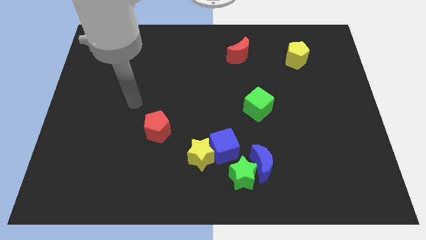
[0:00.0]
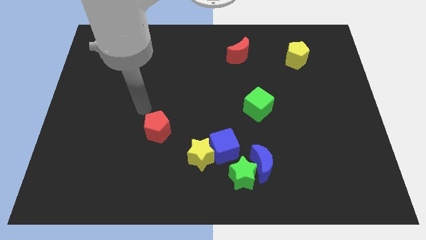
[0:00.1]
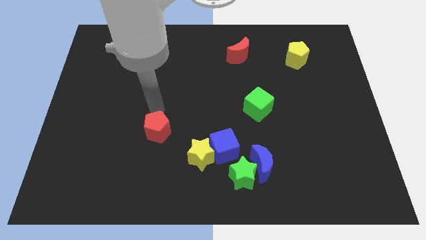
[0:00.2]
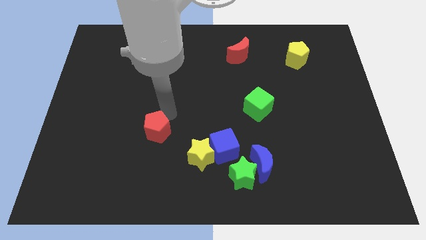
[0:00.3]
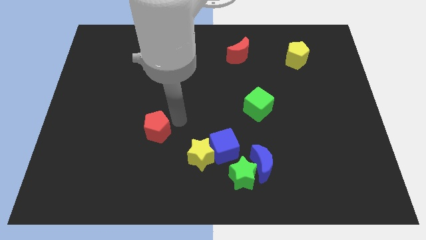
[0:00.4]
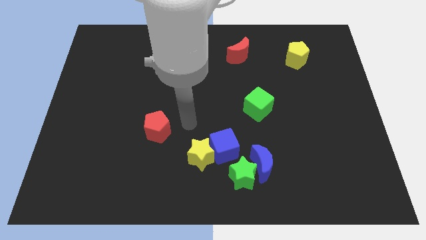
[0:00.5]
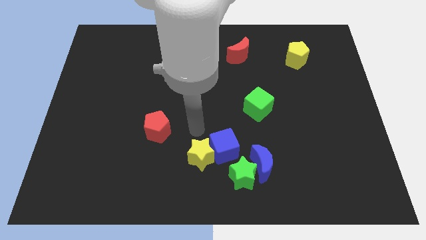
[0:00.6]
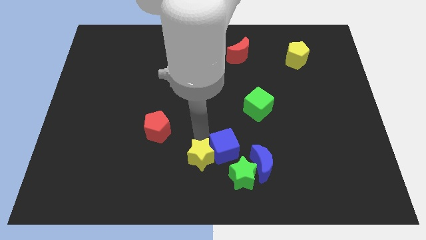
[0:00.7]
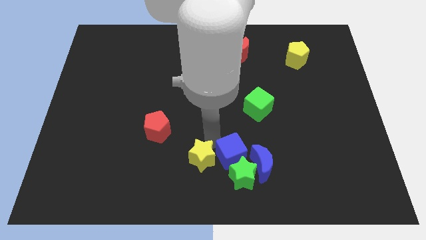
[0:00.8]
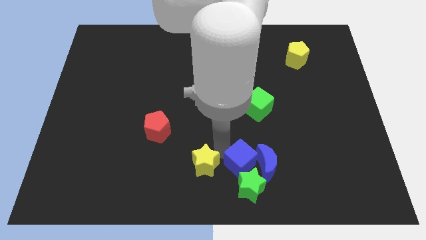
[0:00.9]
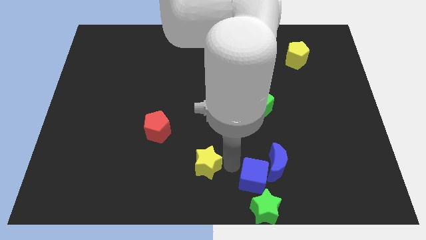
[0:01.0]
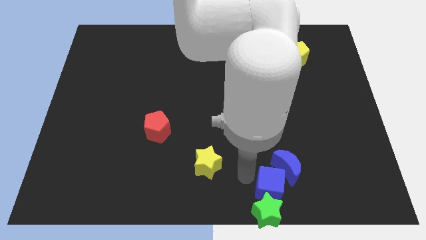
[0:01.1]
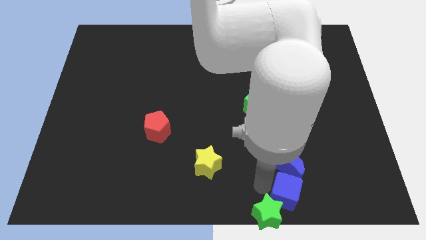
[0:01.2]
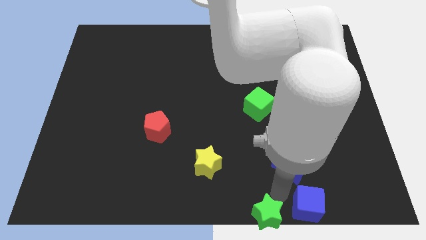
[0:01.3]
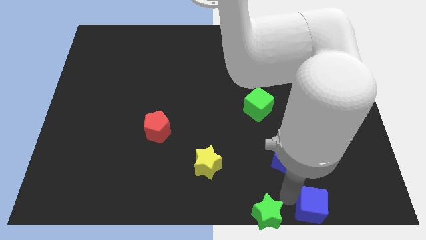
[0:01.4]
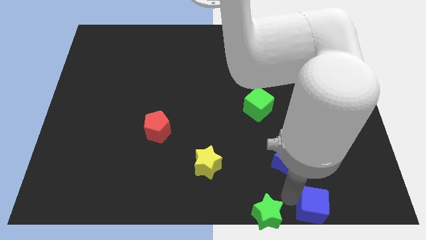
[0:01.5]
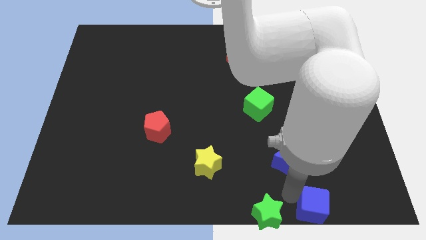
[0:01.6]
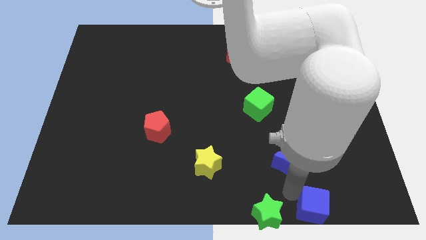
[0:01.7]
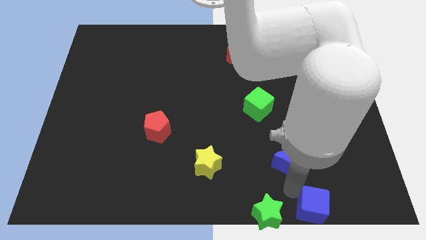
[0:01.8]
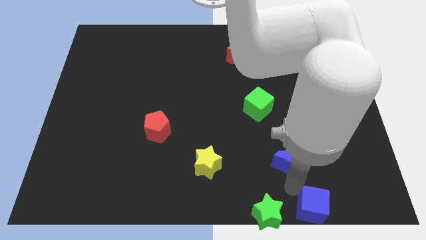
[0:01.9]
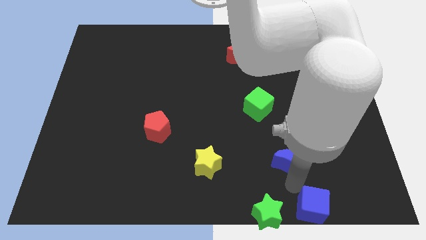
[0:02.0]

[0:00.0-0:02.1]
separate the blue moon from the green star and blue cube

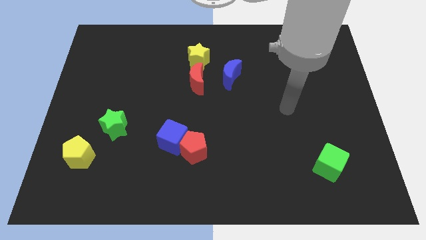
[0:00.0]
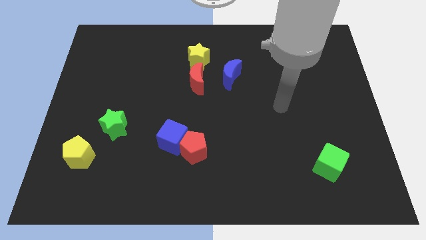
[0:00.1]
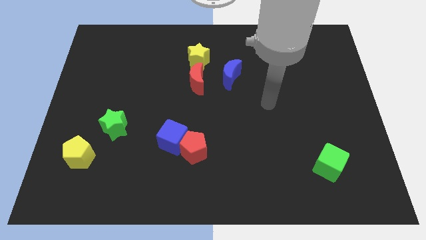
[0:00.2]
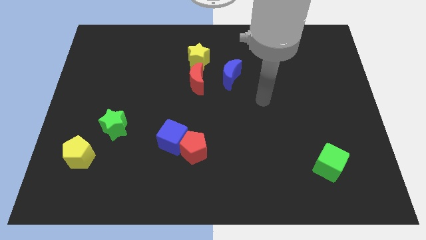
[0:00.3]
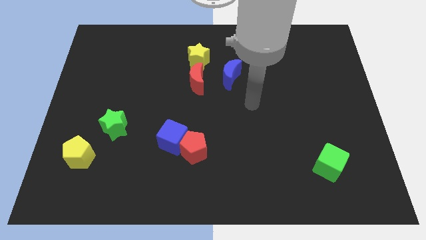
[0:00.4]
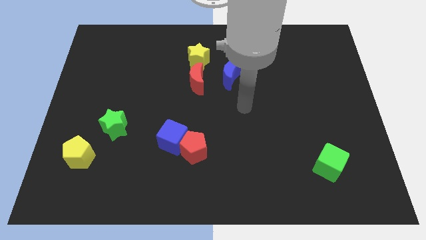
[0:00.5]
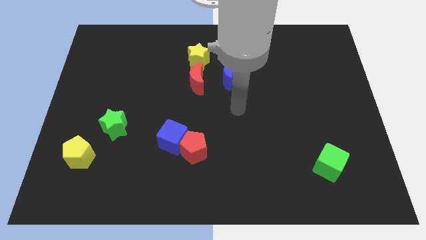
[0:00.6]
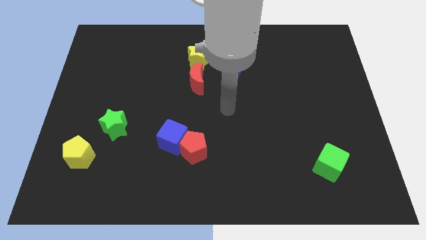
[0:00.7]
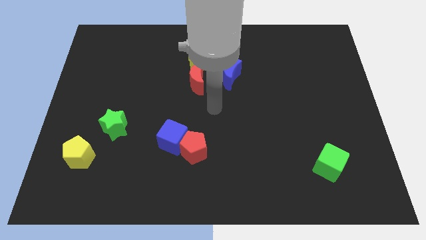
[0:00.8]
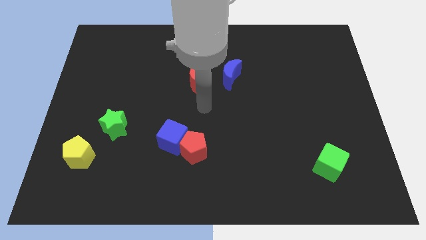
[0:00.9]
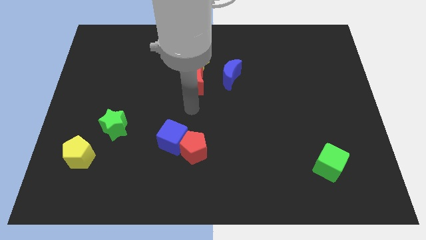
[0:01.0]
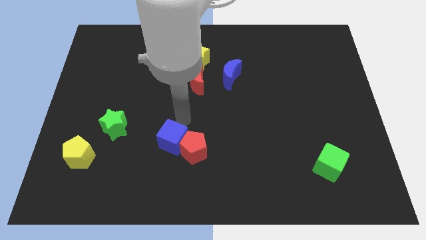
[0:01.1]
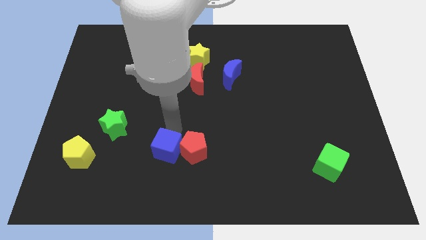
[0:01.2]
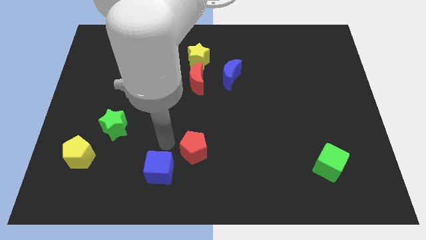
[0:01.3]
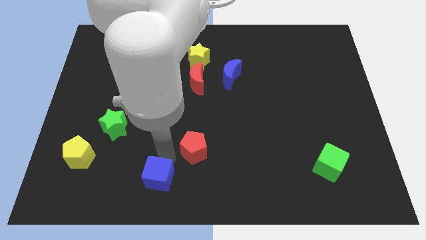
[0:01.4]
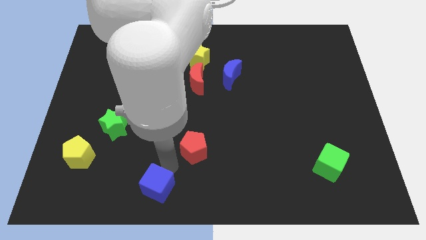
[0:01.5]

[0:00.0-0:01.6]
move the red pentagon away from the blue cube

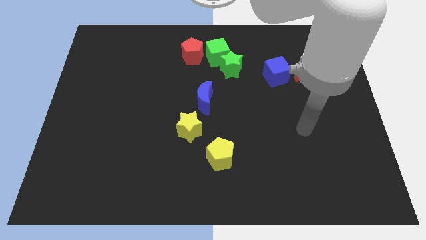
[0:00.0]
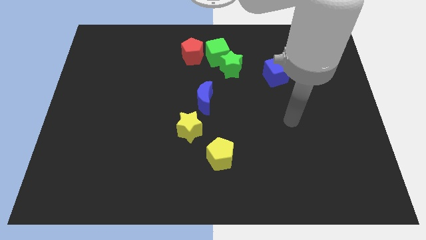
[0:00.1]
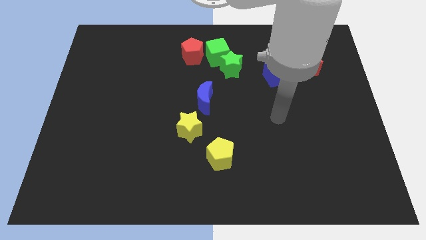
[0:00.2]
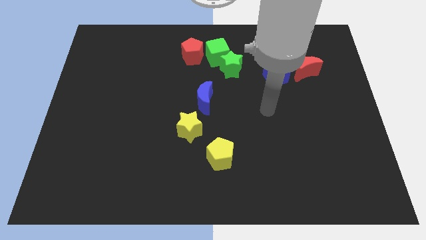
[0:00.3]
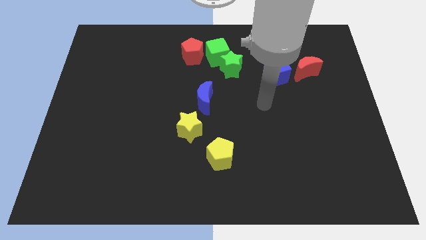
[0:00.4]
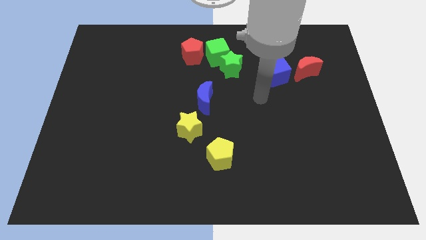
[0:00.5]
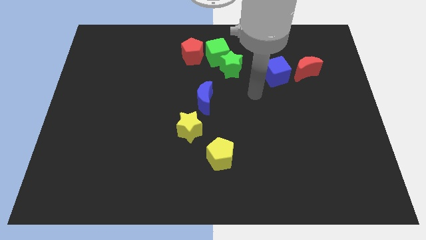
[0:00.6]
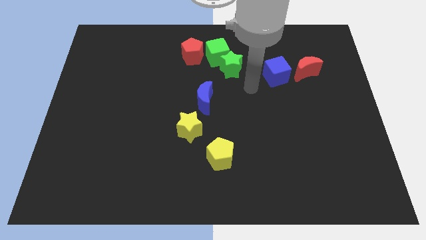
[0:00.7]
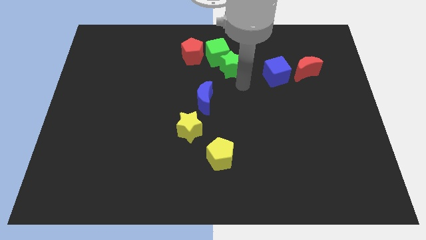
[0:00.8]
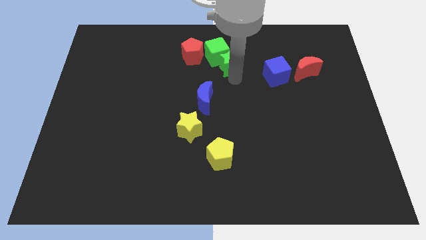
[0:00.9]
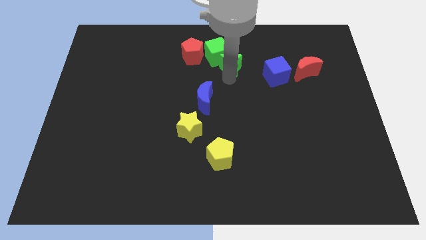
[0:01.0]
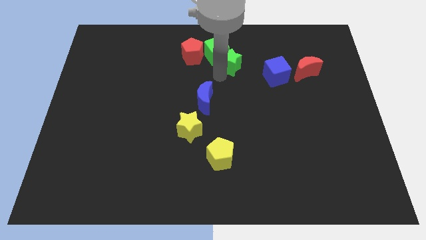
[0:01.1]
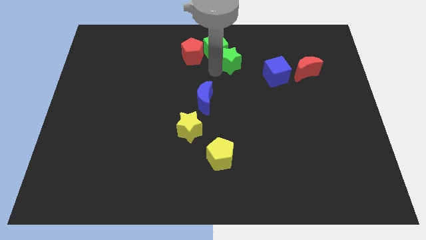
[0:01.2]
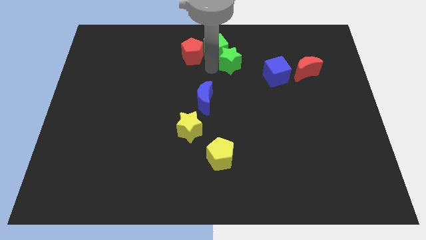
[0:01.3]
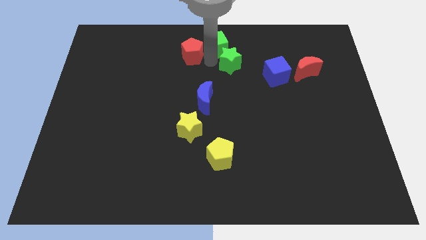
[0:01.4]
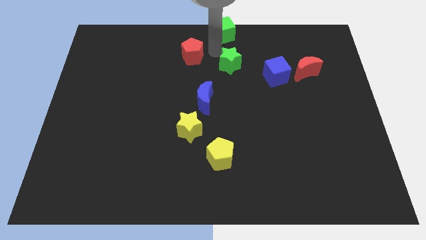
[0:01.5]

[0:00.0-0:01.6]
separate the green star from the green cube

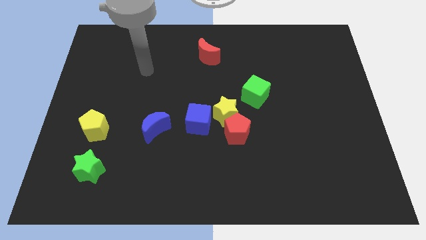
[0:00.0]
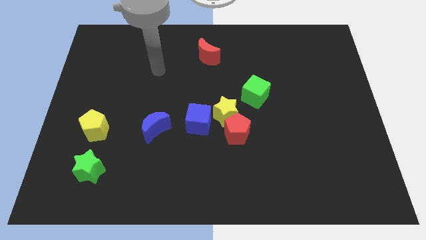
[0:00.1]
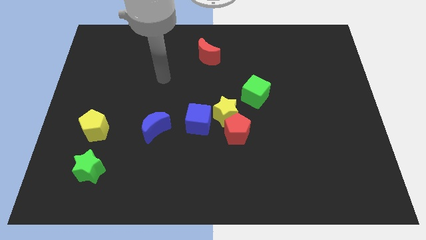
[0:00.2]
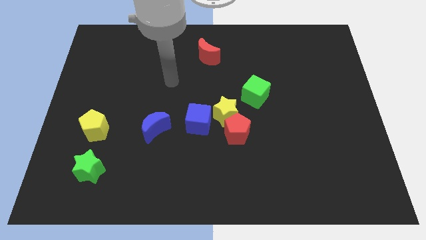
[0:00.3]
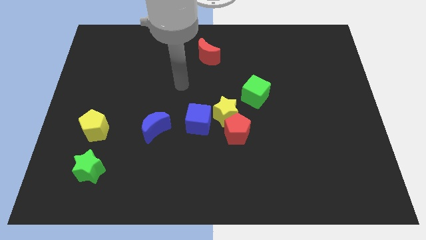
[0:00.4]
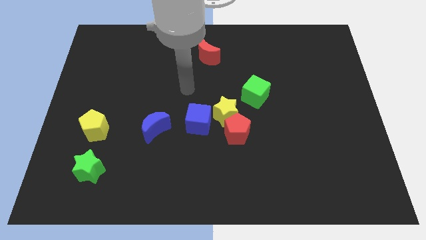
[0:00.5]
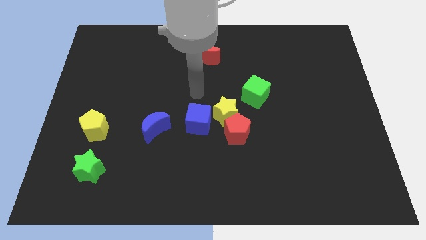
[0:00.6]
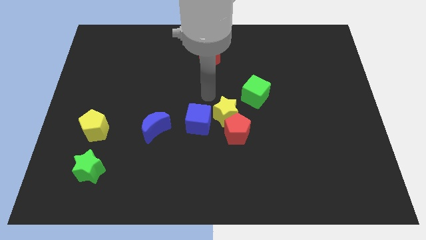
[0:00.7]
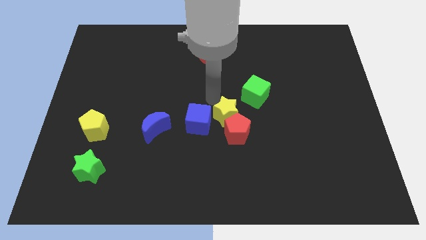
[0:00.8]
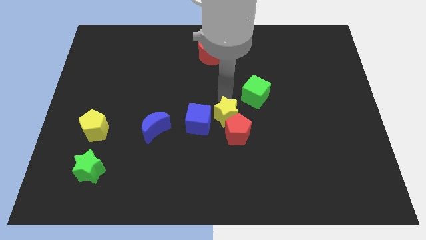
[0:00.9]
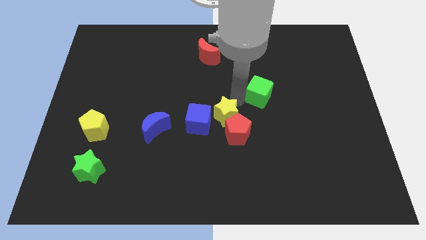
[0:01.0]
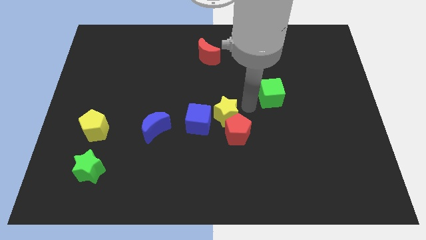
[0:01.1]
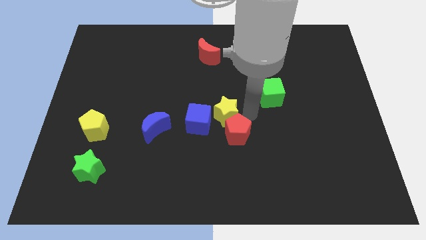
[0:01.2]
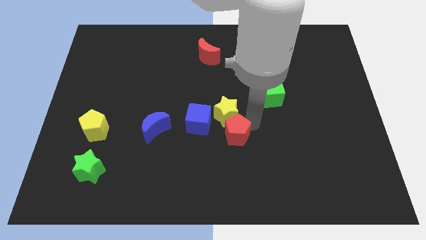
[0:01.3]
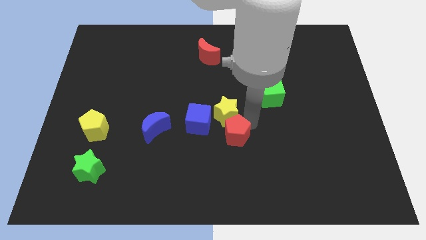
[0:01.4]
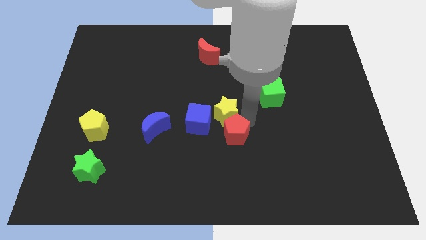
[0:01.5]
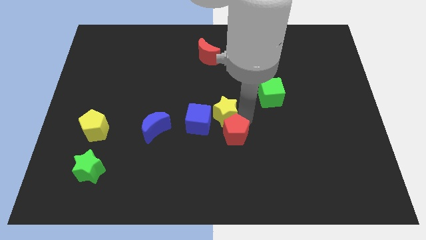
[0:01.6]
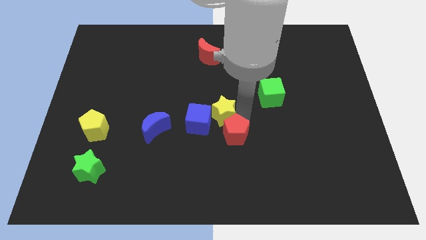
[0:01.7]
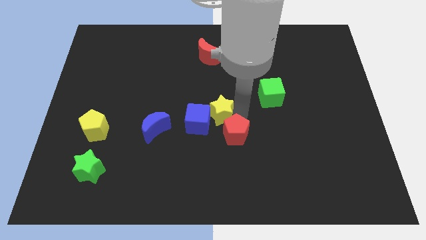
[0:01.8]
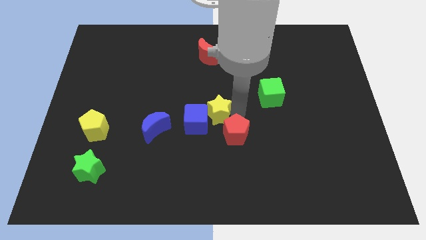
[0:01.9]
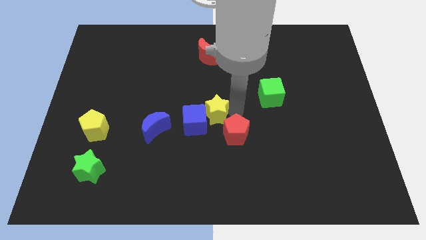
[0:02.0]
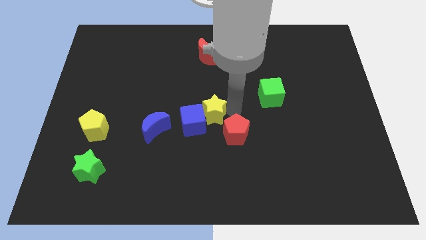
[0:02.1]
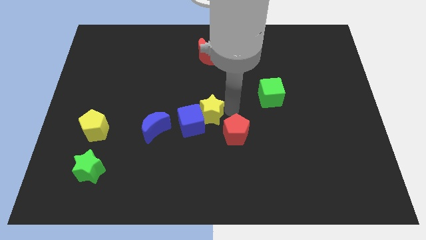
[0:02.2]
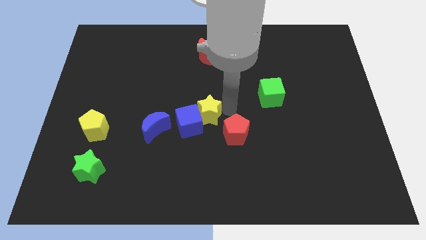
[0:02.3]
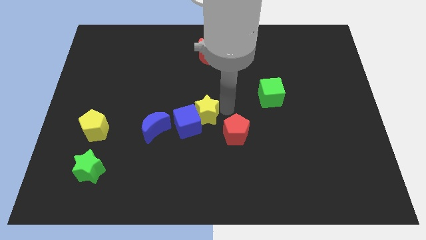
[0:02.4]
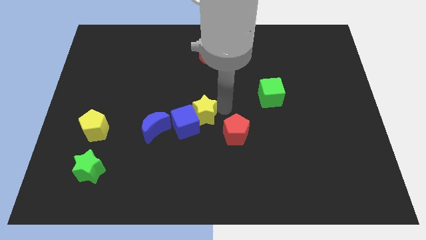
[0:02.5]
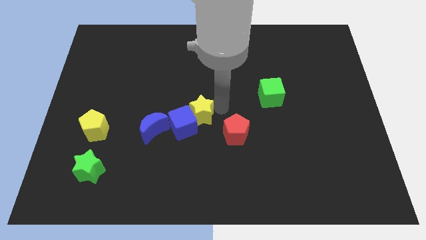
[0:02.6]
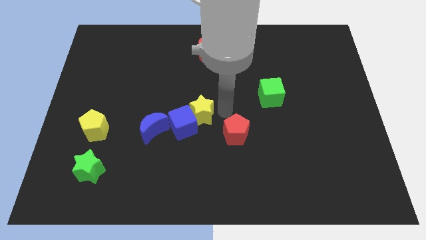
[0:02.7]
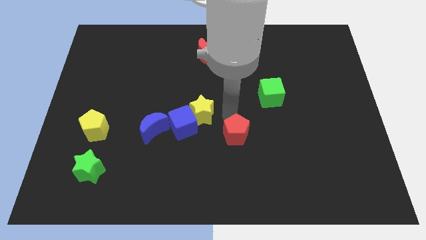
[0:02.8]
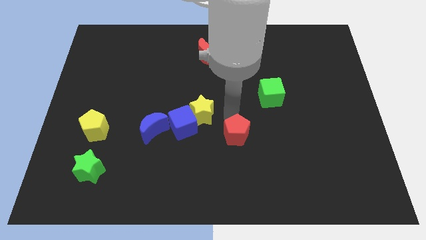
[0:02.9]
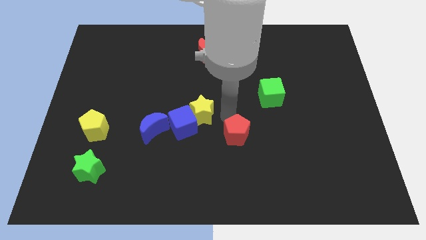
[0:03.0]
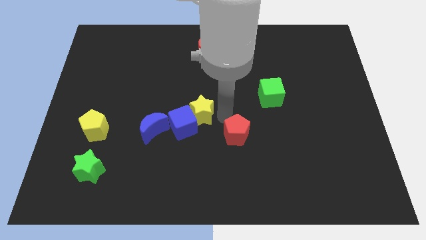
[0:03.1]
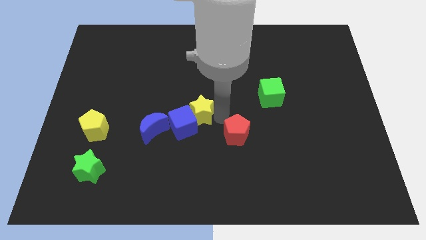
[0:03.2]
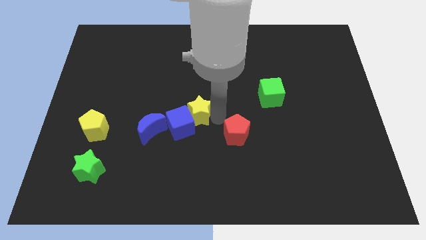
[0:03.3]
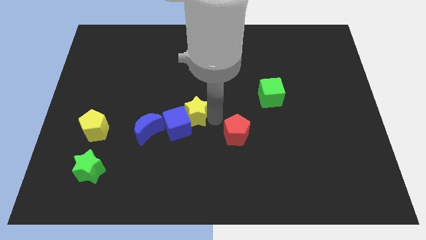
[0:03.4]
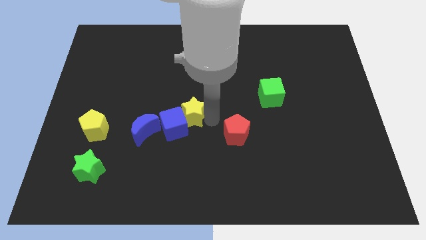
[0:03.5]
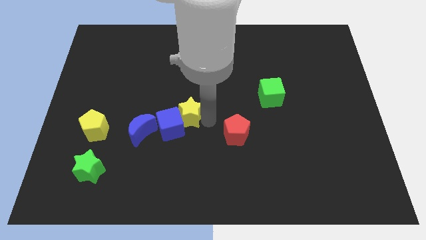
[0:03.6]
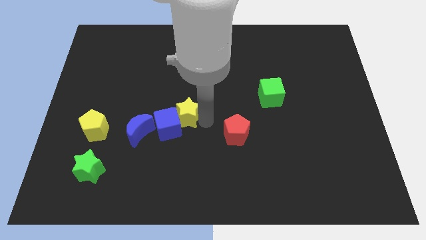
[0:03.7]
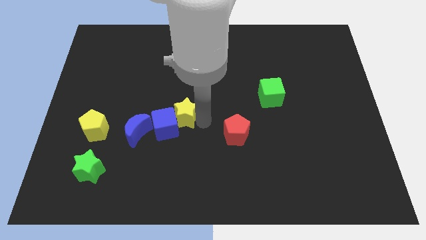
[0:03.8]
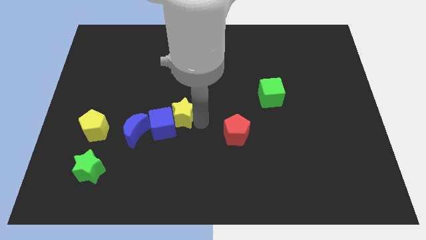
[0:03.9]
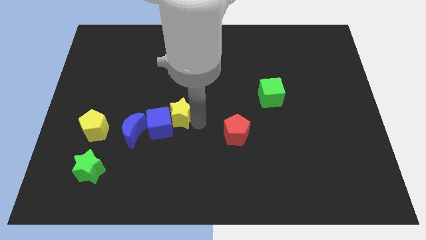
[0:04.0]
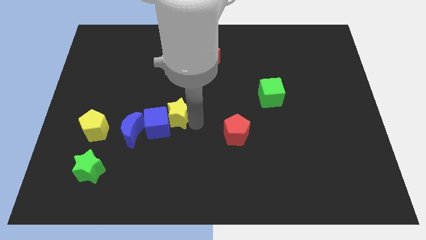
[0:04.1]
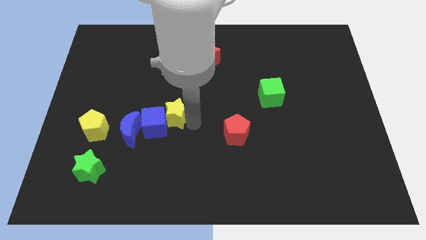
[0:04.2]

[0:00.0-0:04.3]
move the yellow star away from the red pentagon, blue cube, and green cube
